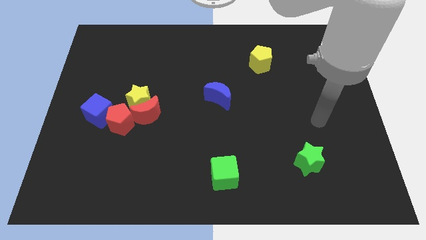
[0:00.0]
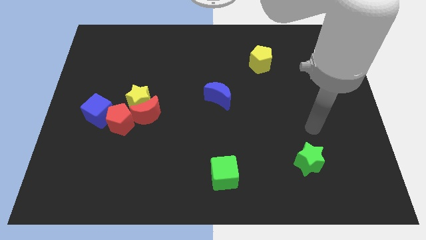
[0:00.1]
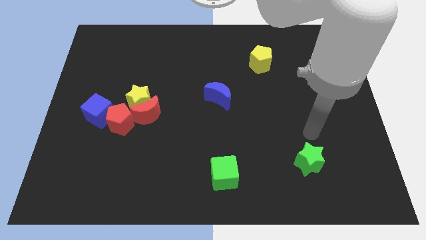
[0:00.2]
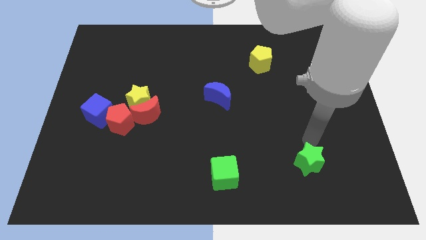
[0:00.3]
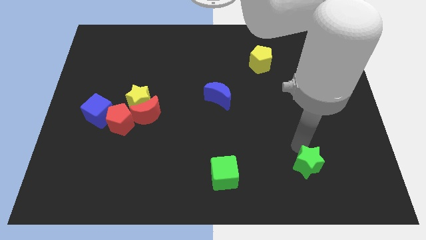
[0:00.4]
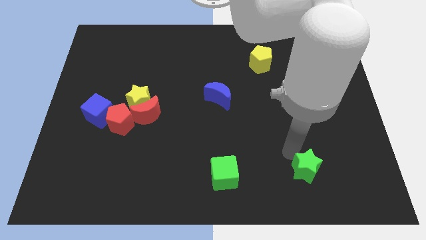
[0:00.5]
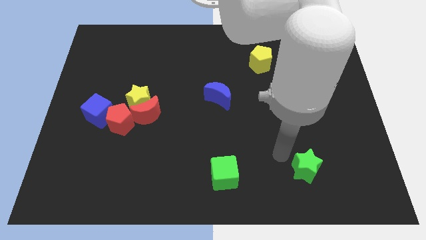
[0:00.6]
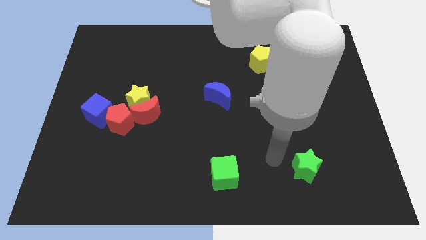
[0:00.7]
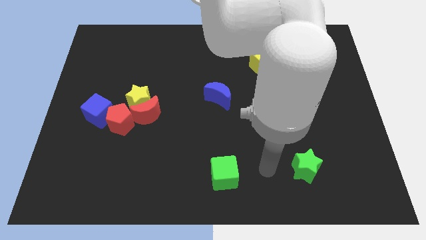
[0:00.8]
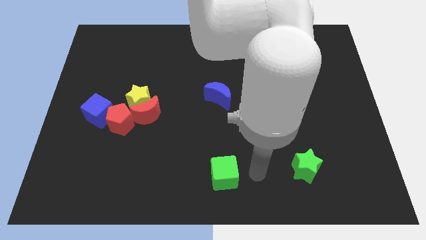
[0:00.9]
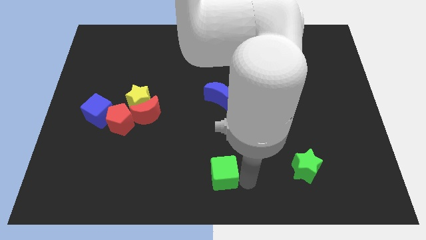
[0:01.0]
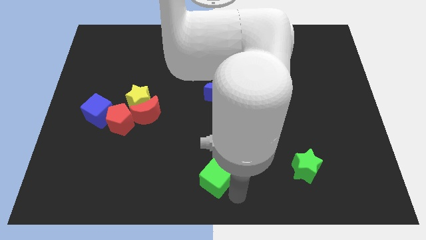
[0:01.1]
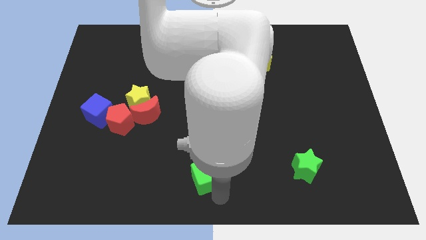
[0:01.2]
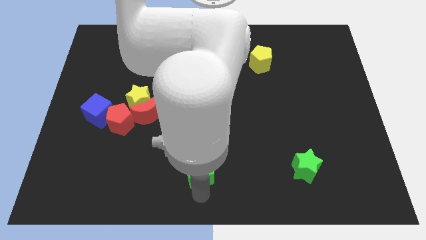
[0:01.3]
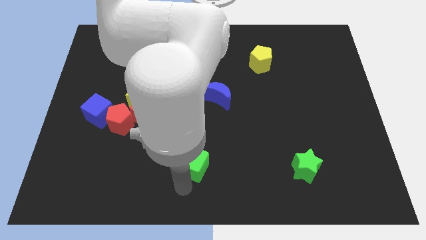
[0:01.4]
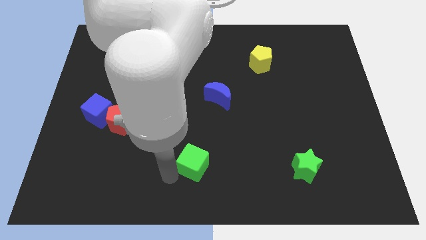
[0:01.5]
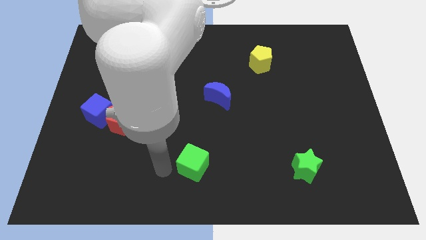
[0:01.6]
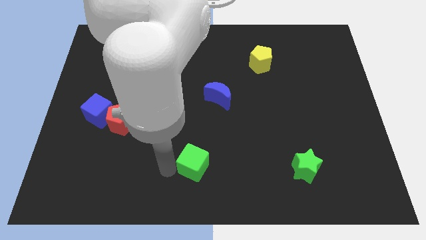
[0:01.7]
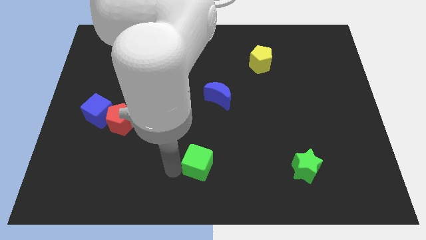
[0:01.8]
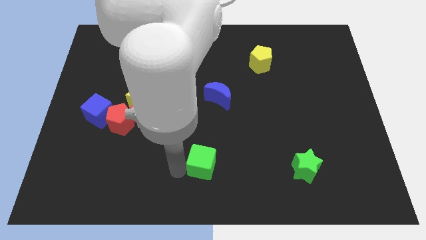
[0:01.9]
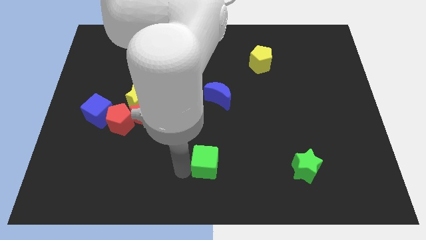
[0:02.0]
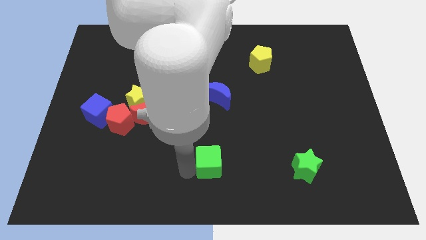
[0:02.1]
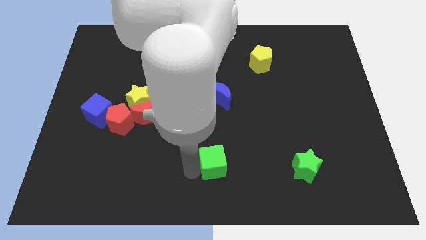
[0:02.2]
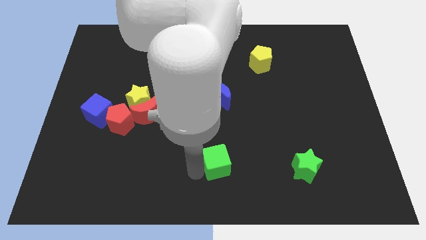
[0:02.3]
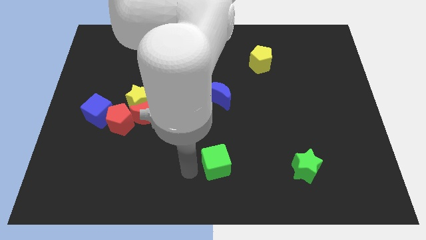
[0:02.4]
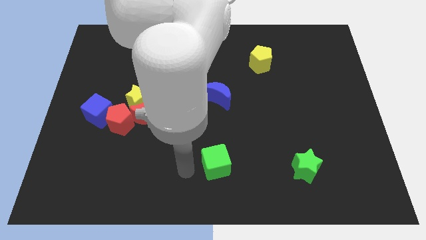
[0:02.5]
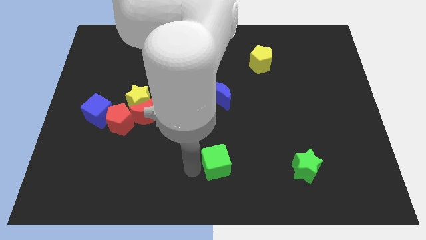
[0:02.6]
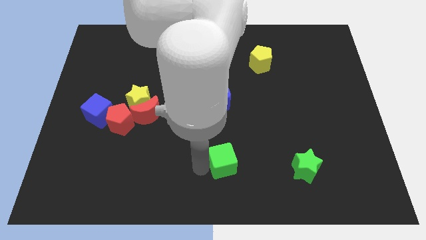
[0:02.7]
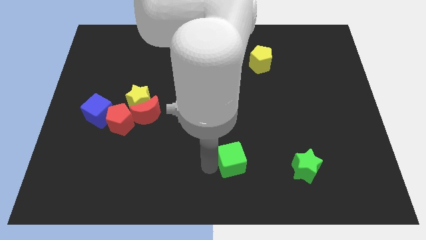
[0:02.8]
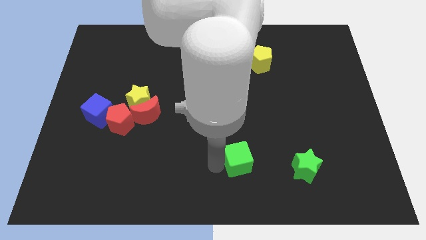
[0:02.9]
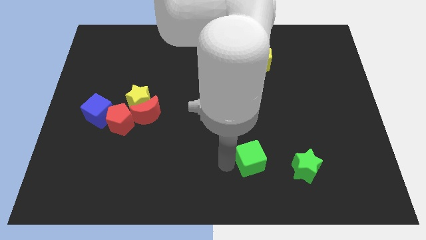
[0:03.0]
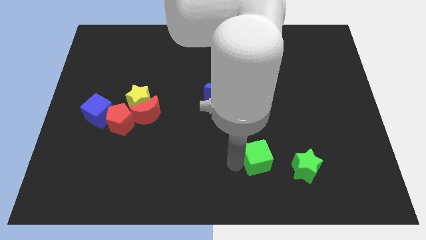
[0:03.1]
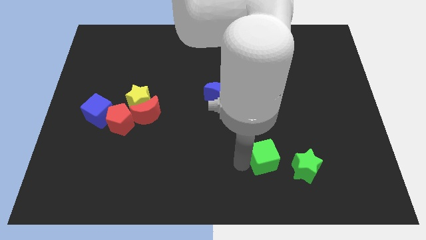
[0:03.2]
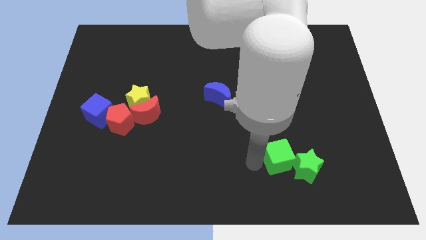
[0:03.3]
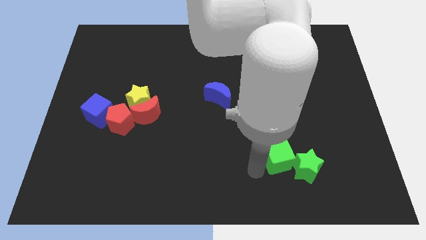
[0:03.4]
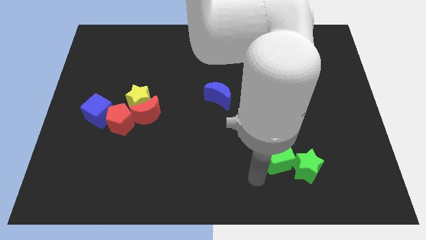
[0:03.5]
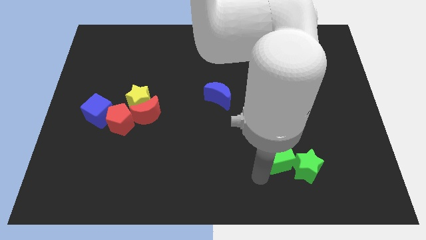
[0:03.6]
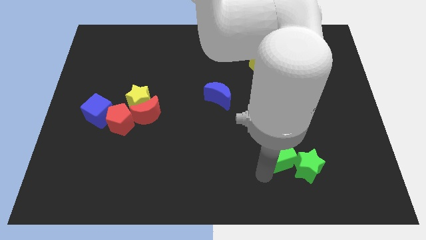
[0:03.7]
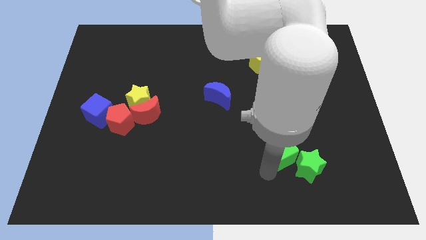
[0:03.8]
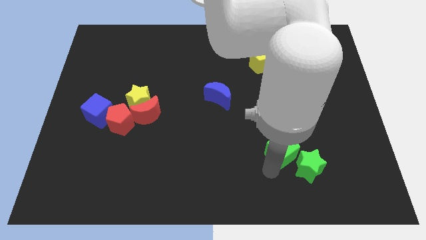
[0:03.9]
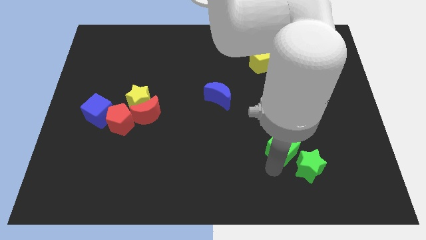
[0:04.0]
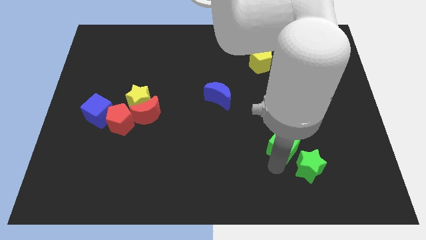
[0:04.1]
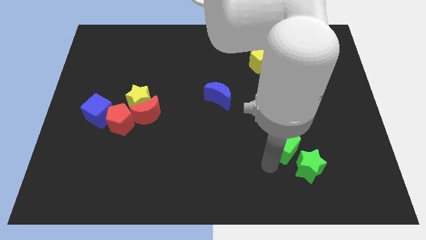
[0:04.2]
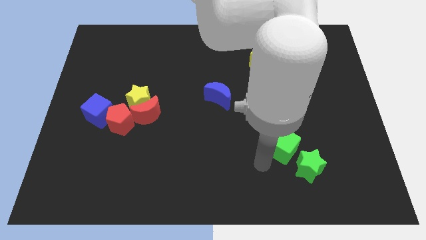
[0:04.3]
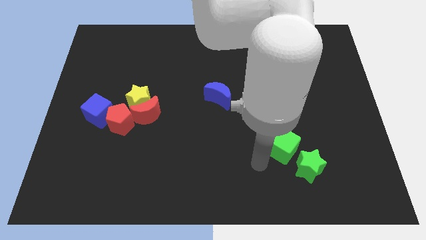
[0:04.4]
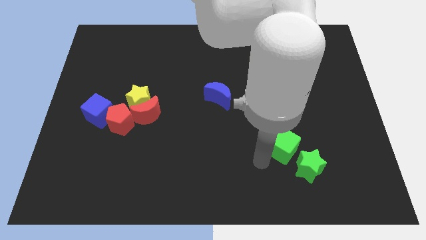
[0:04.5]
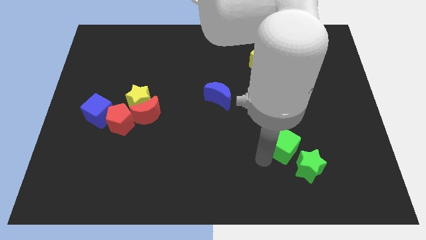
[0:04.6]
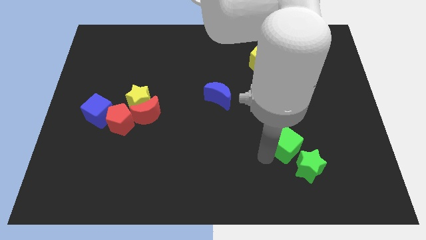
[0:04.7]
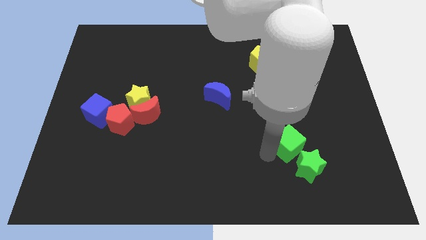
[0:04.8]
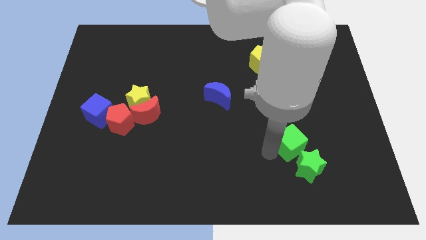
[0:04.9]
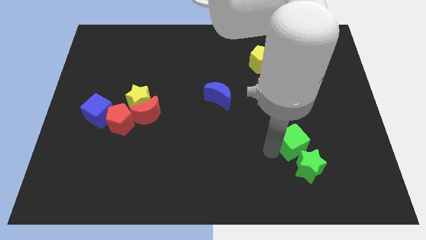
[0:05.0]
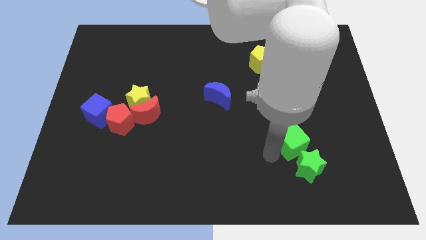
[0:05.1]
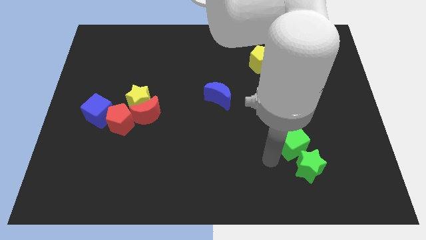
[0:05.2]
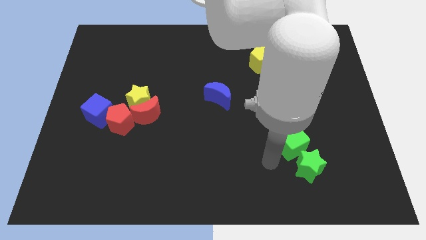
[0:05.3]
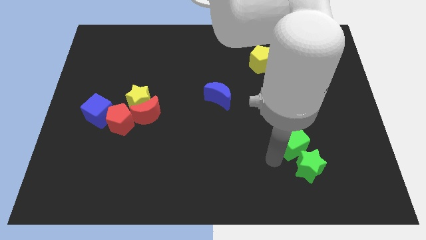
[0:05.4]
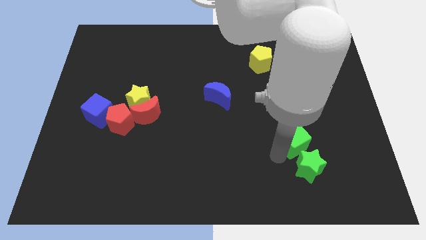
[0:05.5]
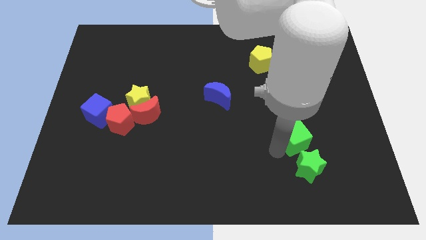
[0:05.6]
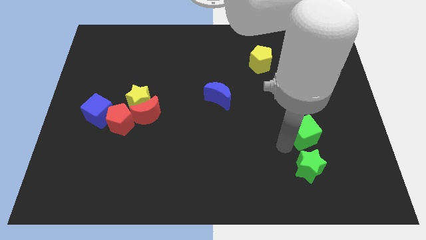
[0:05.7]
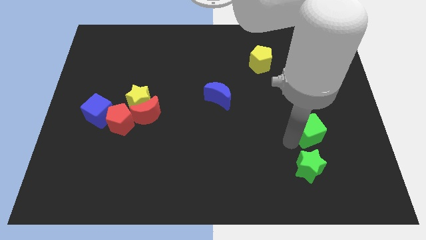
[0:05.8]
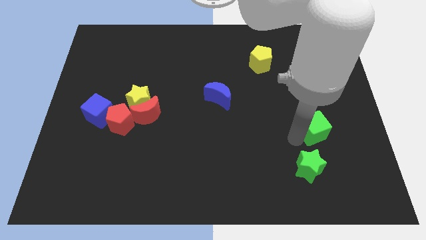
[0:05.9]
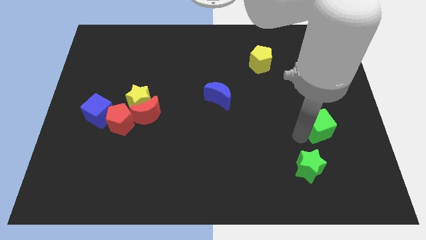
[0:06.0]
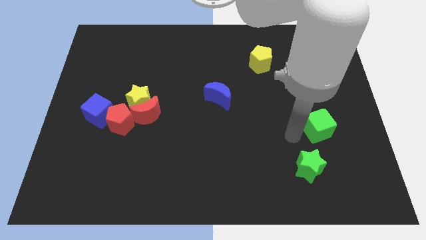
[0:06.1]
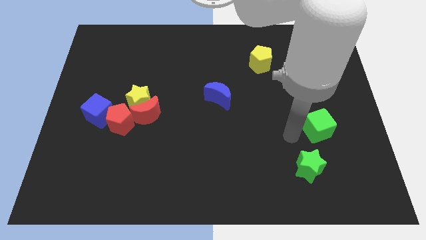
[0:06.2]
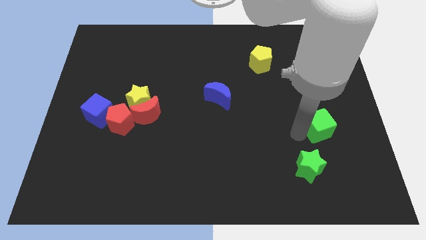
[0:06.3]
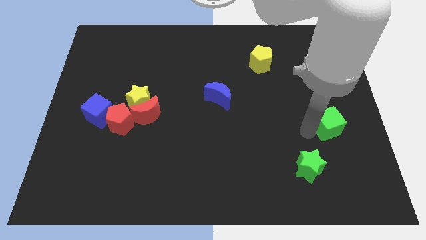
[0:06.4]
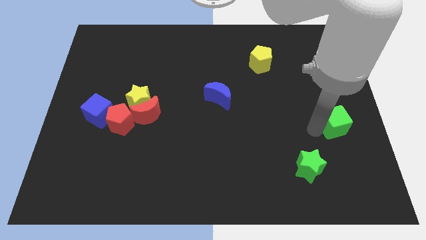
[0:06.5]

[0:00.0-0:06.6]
put the green cube to the right side
